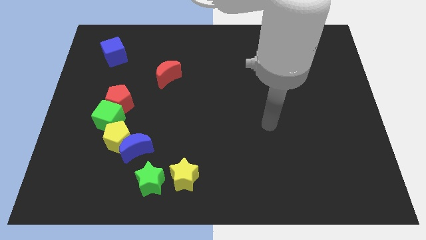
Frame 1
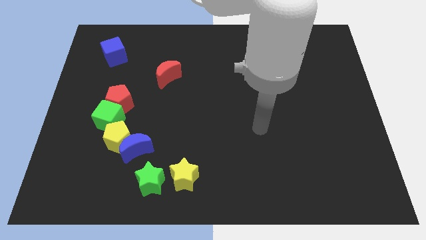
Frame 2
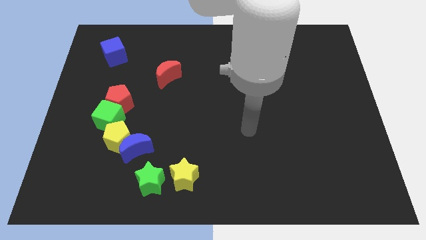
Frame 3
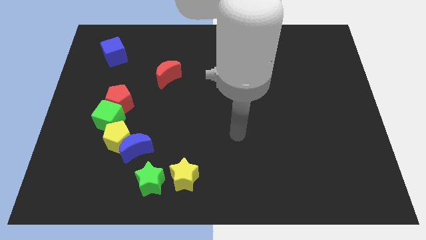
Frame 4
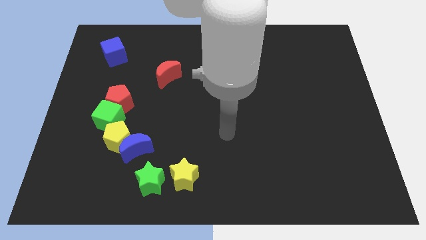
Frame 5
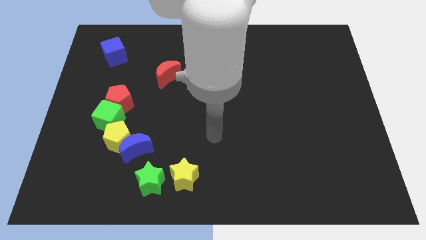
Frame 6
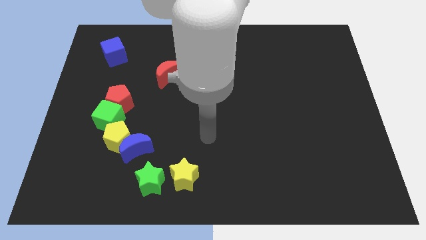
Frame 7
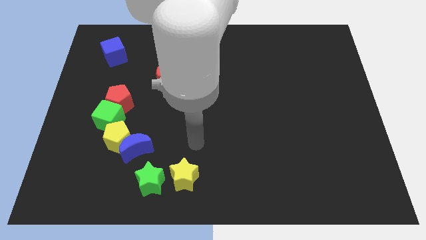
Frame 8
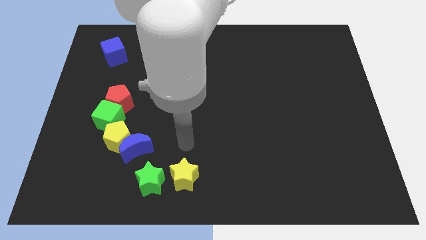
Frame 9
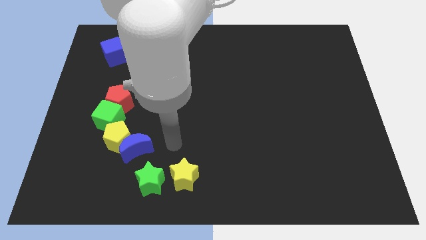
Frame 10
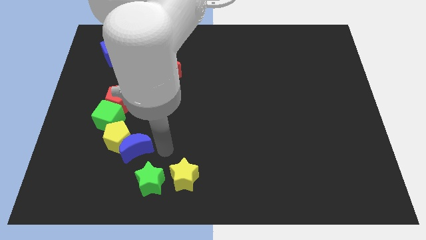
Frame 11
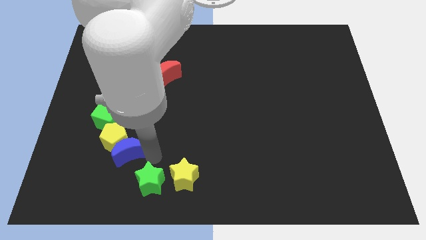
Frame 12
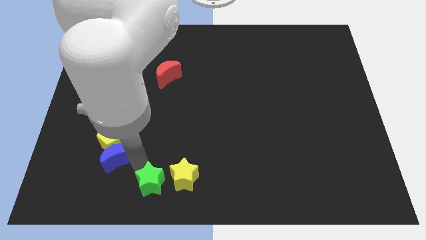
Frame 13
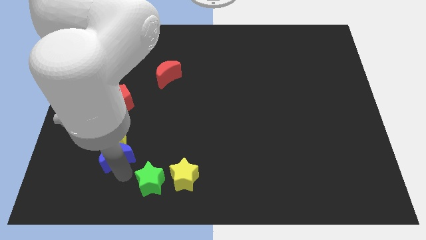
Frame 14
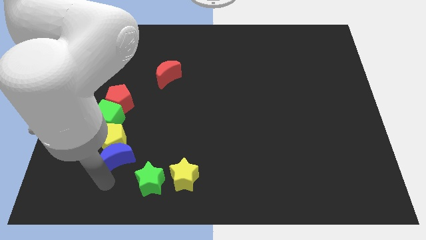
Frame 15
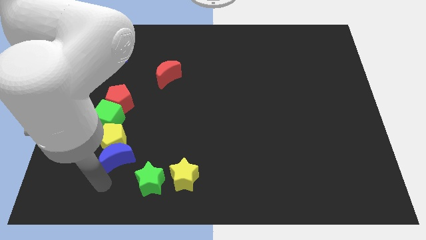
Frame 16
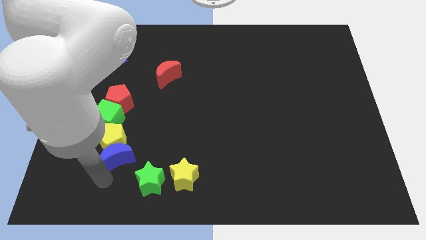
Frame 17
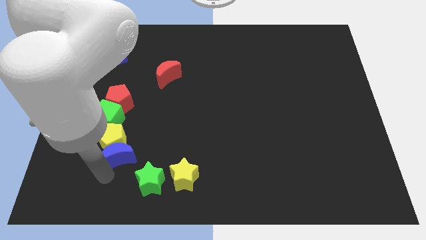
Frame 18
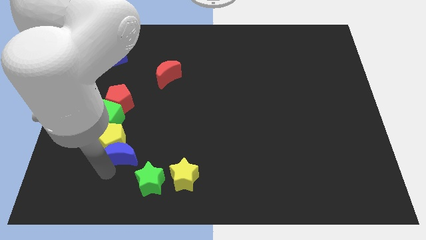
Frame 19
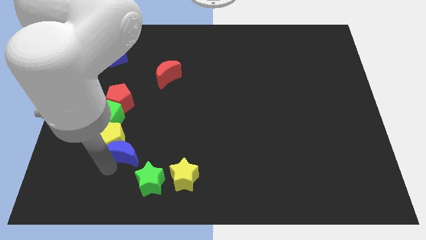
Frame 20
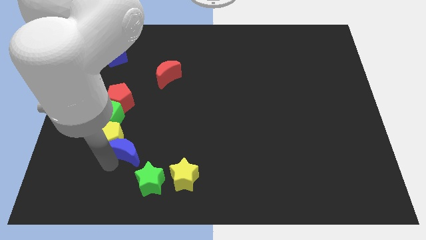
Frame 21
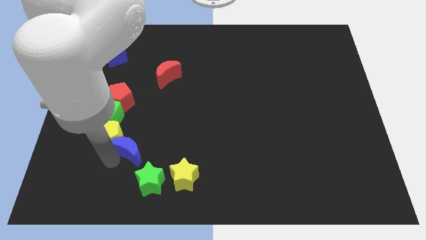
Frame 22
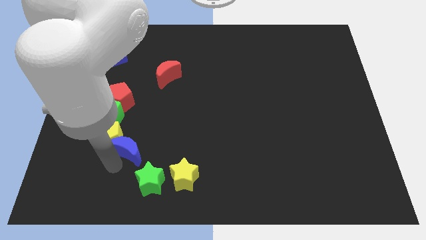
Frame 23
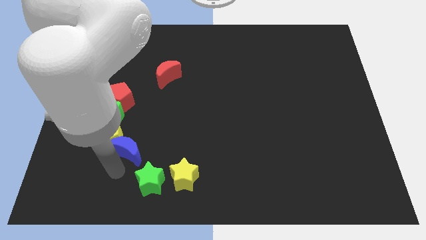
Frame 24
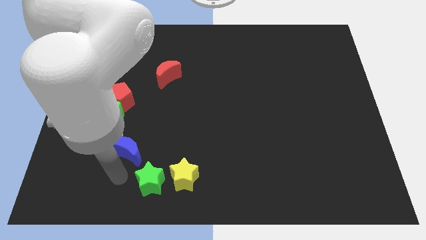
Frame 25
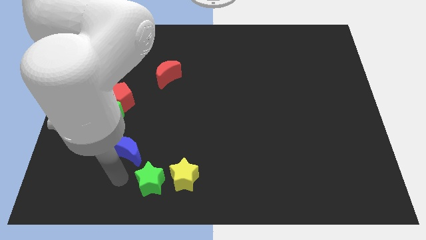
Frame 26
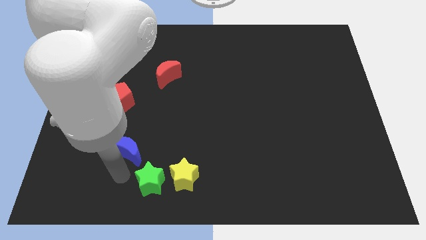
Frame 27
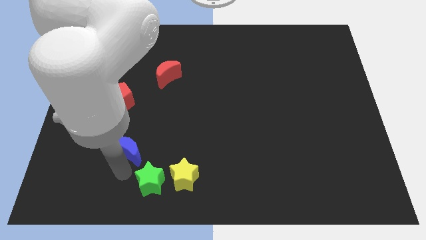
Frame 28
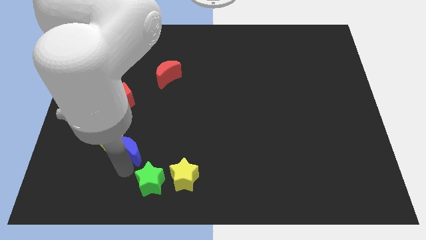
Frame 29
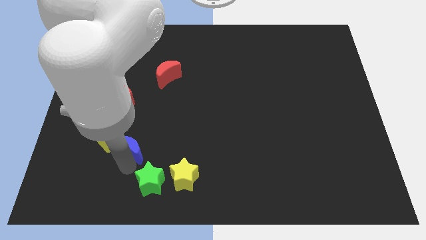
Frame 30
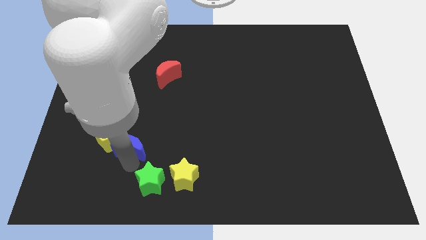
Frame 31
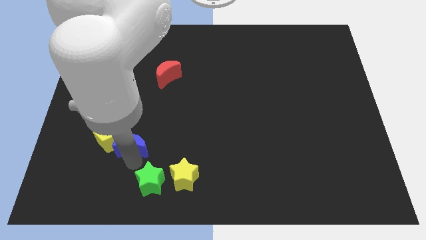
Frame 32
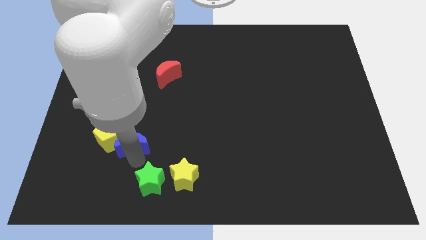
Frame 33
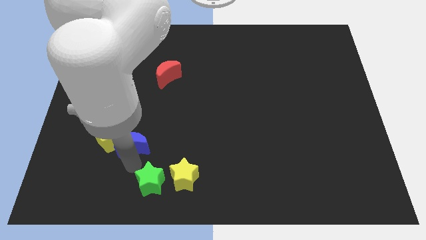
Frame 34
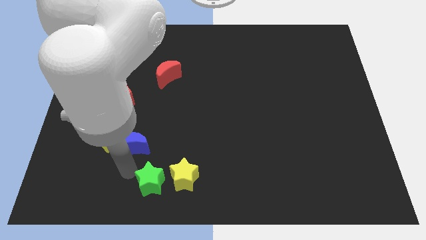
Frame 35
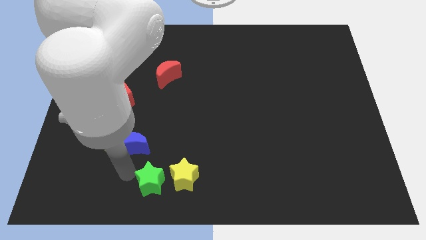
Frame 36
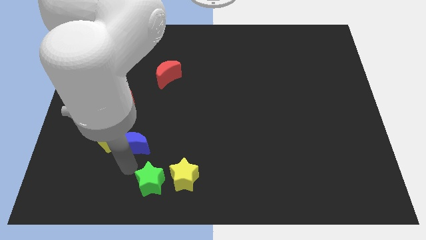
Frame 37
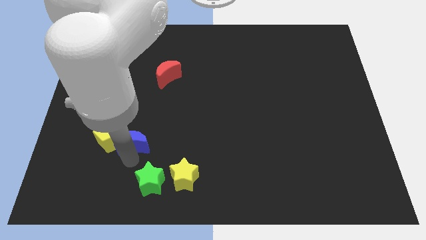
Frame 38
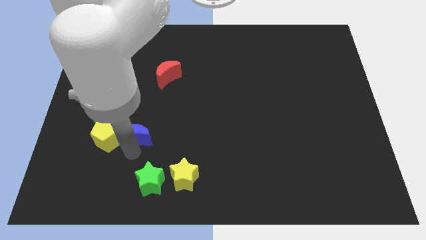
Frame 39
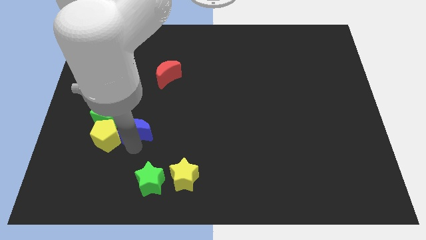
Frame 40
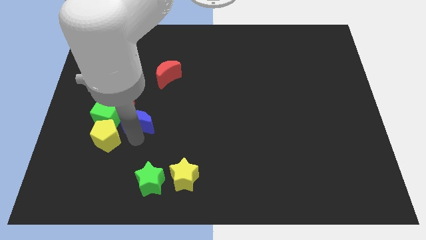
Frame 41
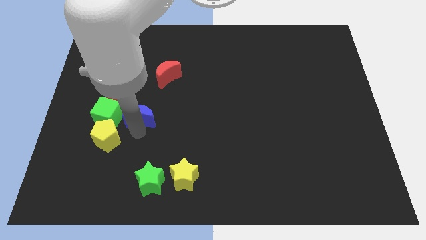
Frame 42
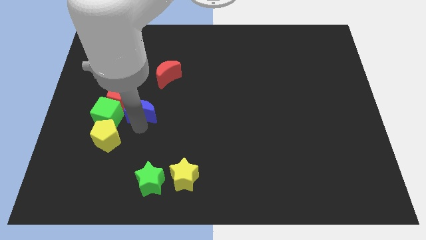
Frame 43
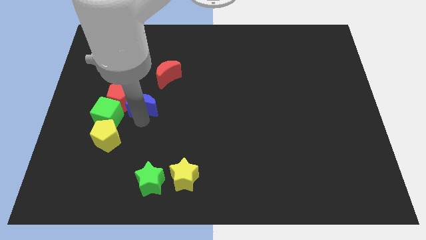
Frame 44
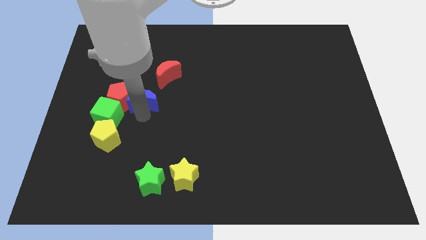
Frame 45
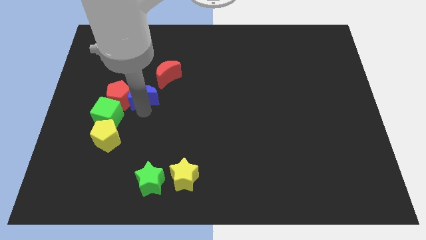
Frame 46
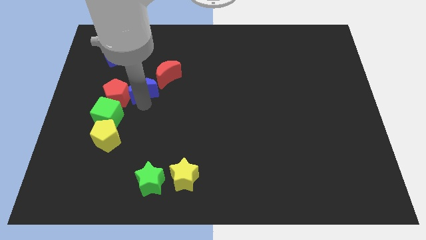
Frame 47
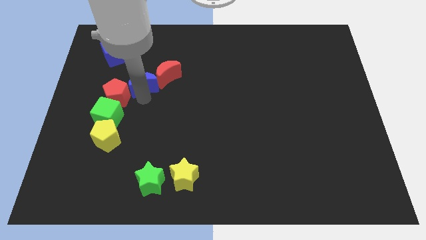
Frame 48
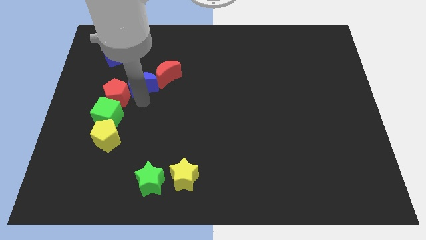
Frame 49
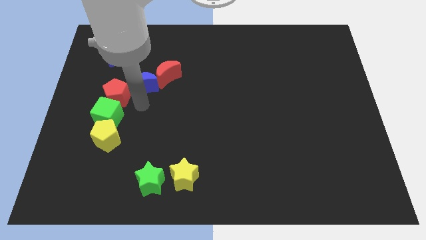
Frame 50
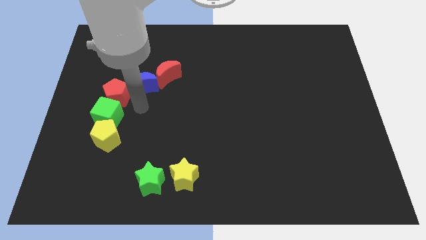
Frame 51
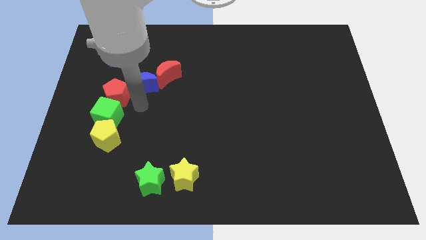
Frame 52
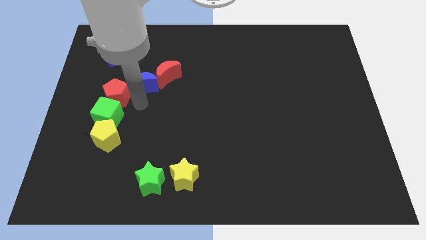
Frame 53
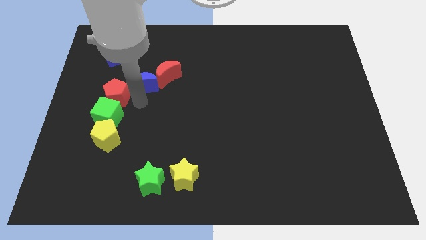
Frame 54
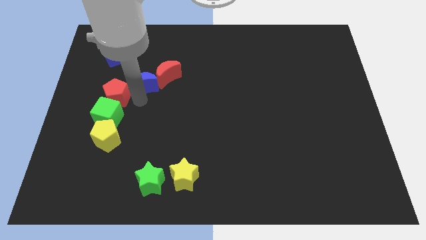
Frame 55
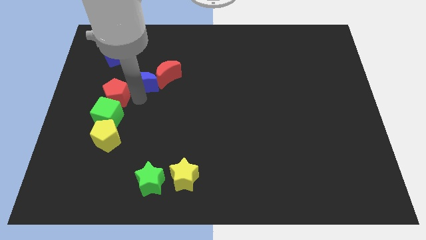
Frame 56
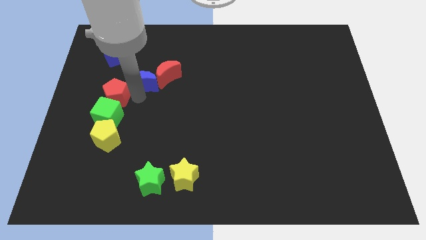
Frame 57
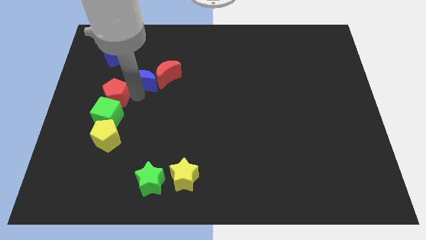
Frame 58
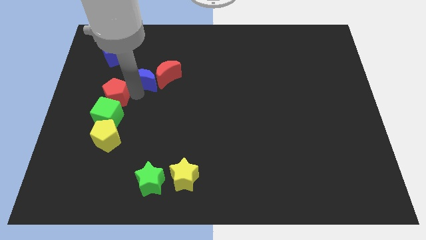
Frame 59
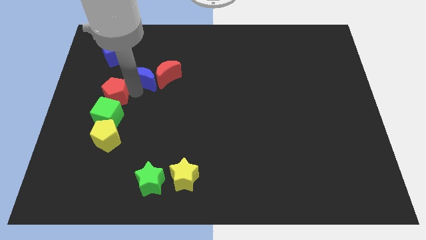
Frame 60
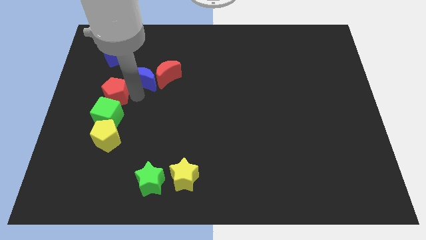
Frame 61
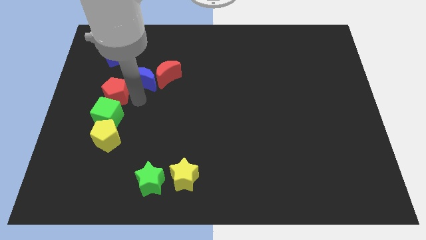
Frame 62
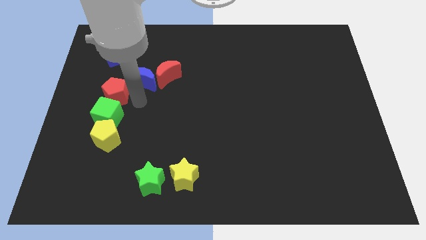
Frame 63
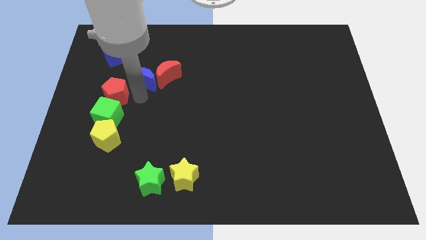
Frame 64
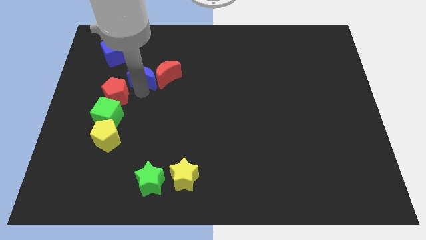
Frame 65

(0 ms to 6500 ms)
slide the blue moon diagonally up and to the left of the red moon
